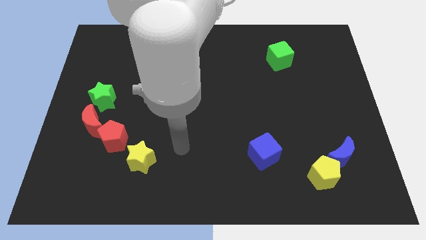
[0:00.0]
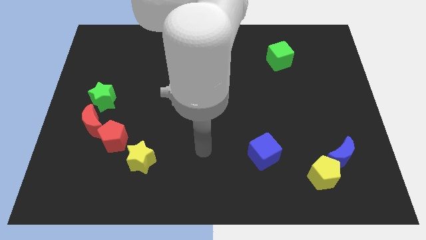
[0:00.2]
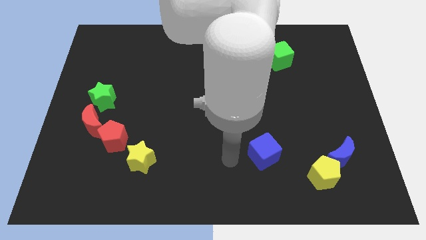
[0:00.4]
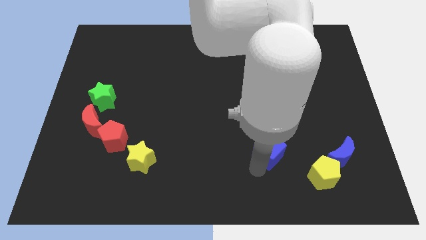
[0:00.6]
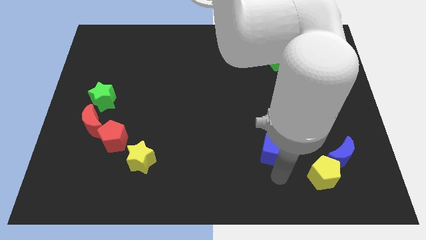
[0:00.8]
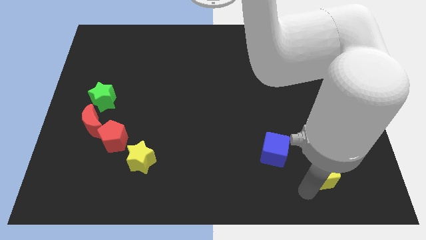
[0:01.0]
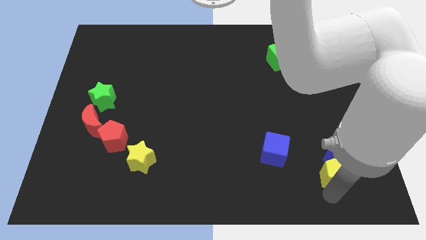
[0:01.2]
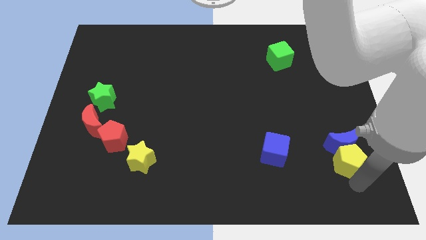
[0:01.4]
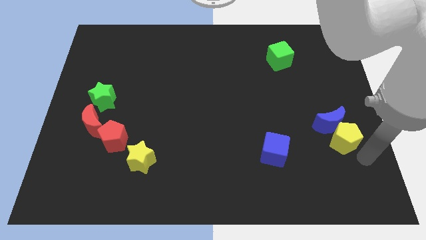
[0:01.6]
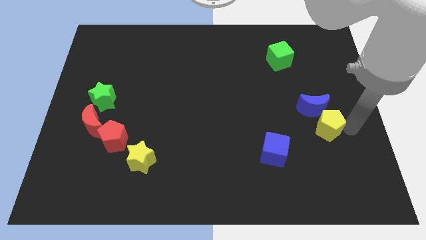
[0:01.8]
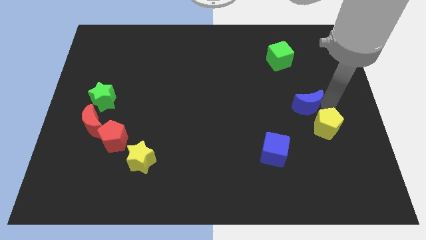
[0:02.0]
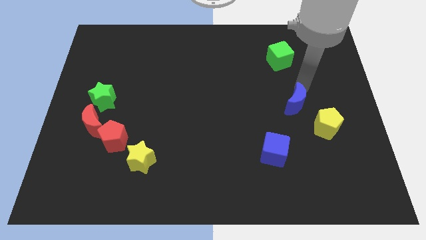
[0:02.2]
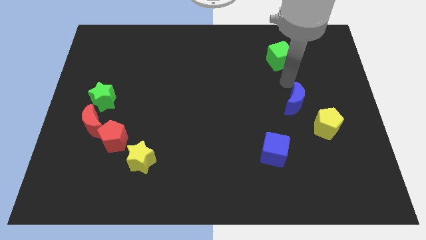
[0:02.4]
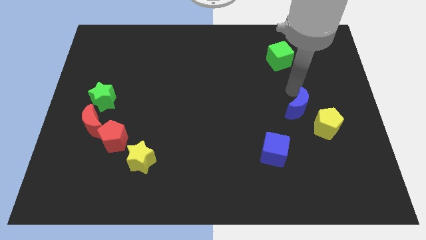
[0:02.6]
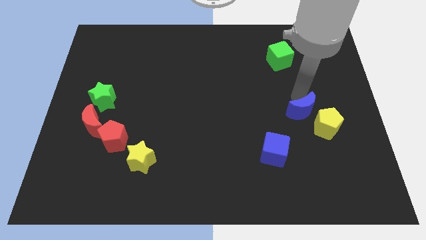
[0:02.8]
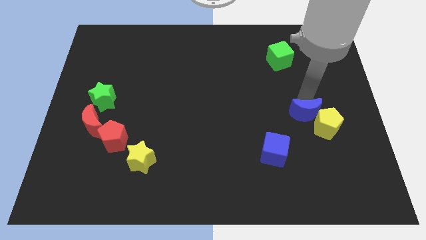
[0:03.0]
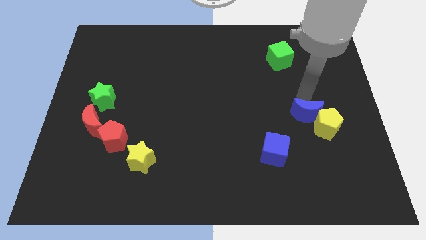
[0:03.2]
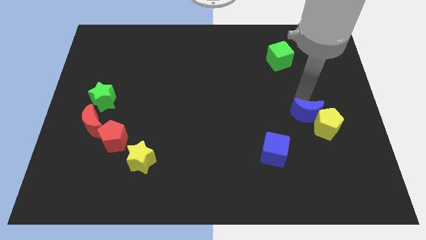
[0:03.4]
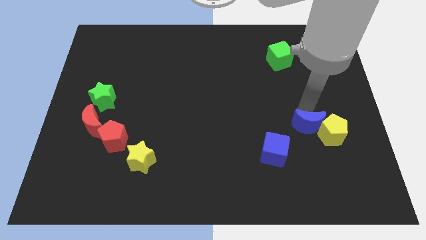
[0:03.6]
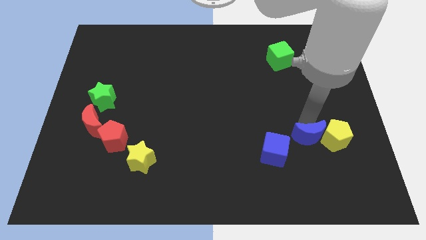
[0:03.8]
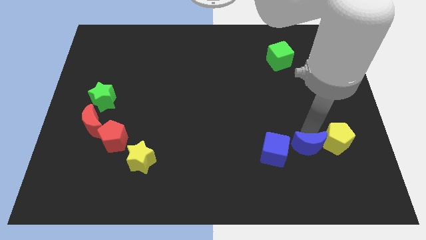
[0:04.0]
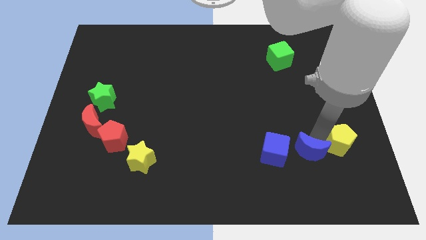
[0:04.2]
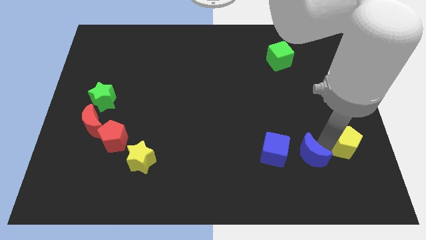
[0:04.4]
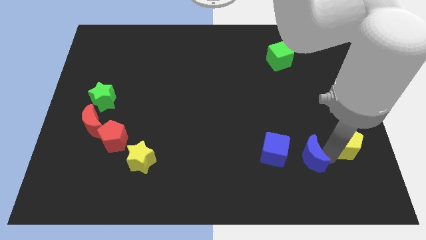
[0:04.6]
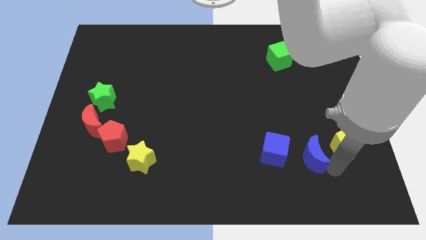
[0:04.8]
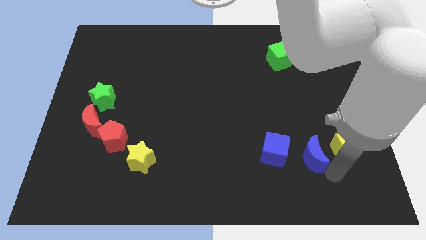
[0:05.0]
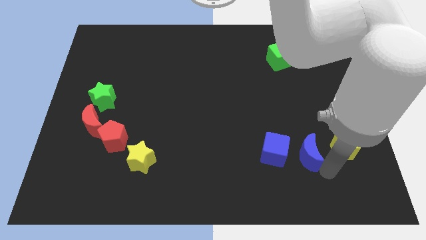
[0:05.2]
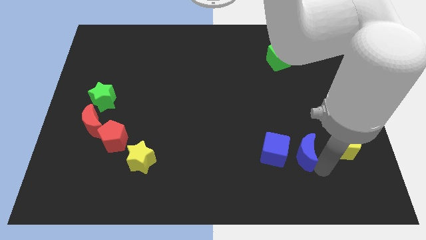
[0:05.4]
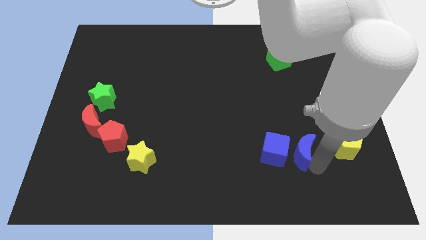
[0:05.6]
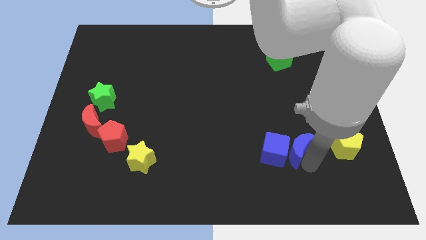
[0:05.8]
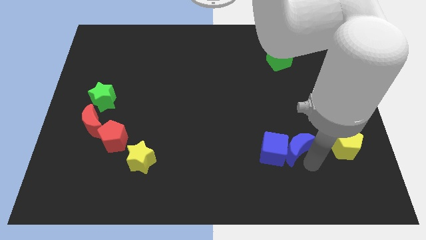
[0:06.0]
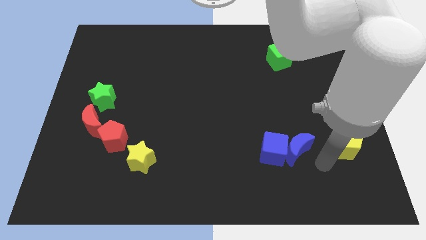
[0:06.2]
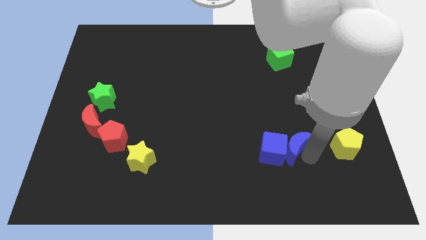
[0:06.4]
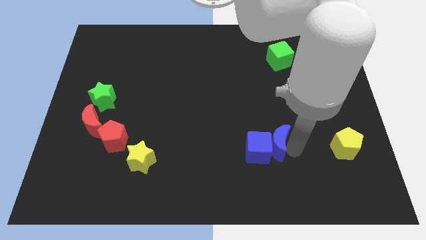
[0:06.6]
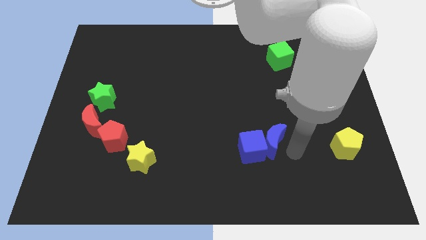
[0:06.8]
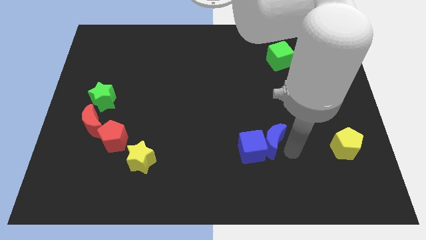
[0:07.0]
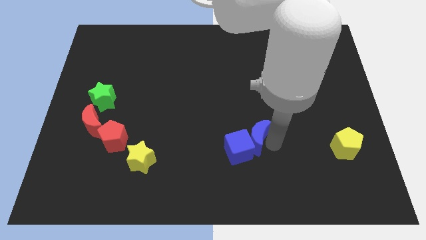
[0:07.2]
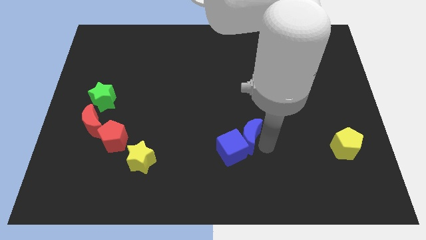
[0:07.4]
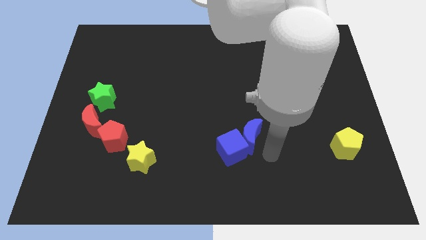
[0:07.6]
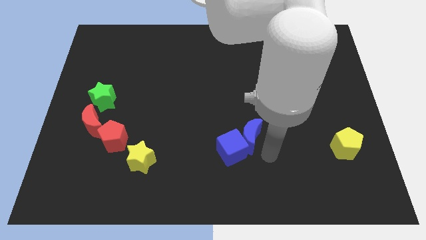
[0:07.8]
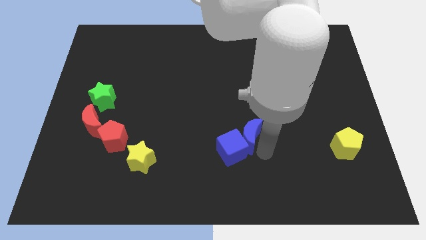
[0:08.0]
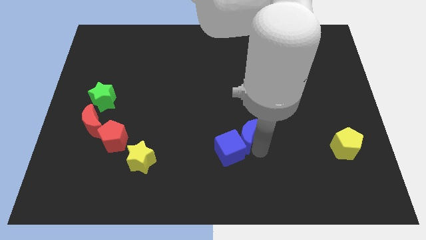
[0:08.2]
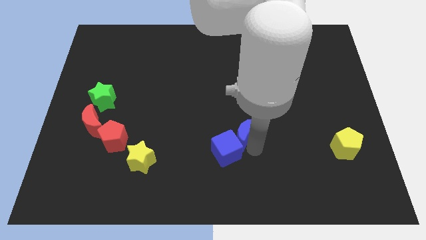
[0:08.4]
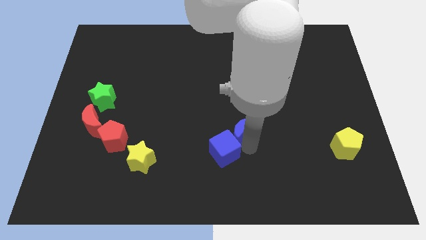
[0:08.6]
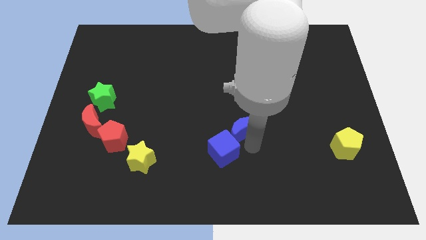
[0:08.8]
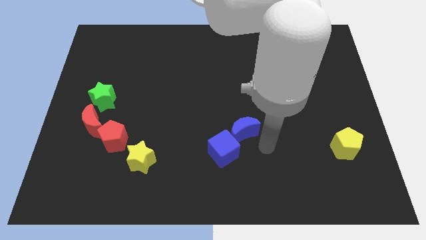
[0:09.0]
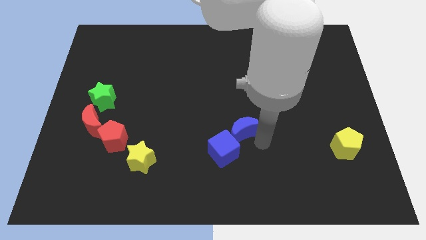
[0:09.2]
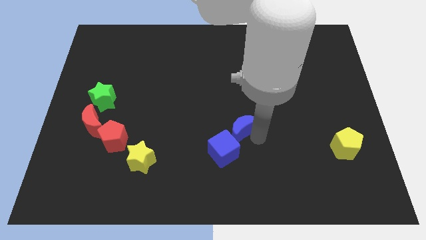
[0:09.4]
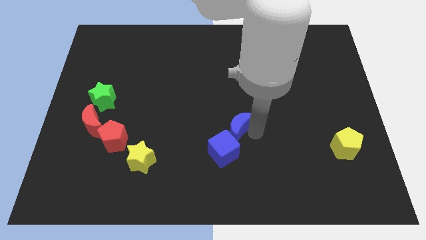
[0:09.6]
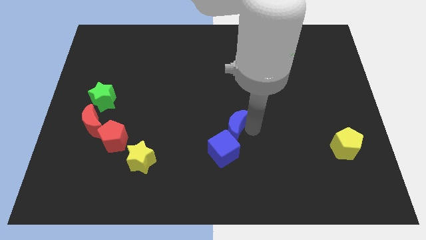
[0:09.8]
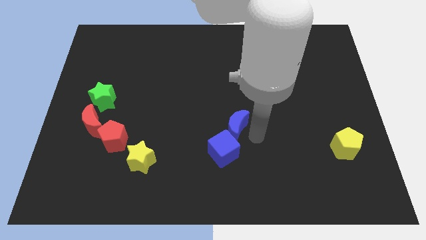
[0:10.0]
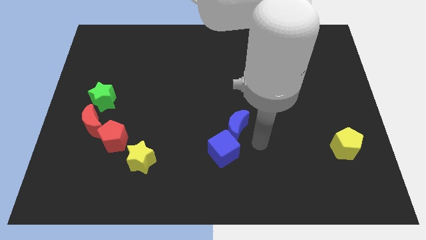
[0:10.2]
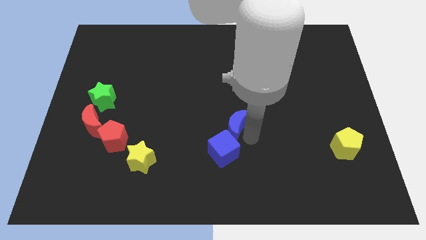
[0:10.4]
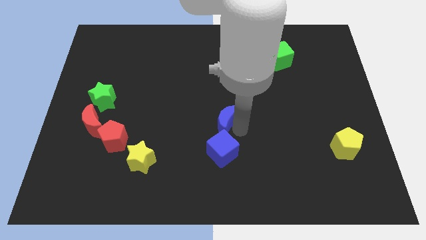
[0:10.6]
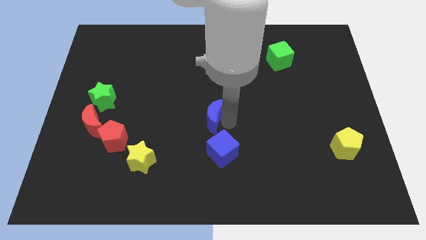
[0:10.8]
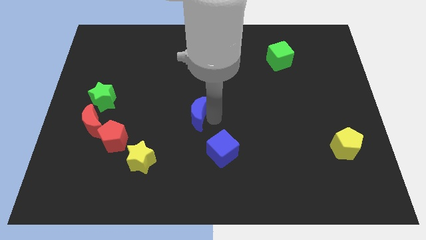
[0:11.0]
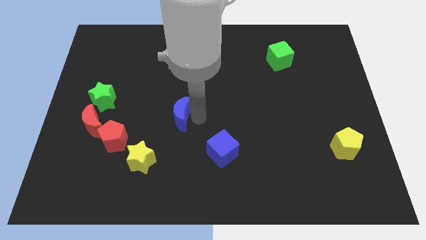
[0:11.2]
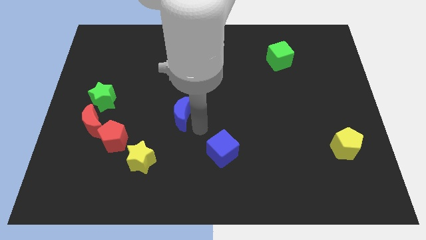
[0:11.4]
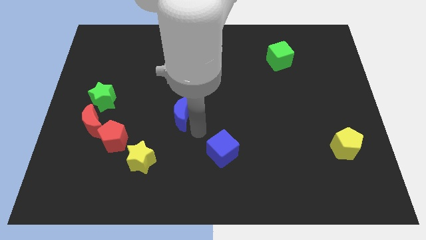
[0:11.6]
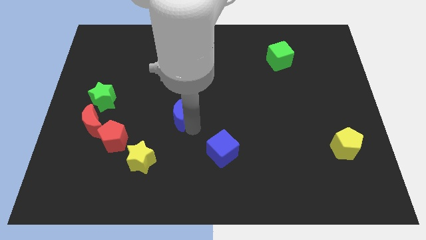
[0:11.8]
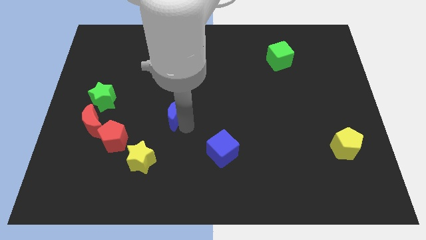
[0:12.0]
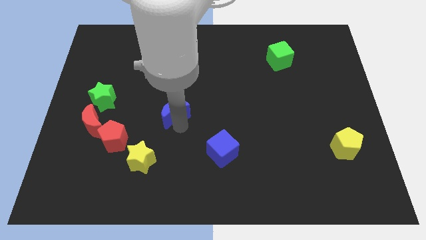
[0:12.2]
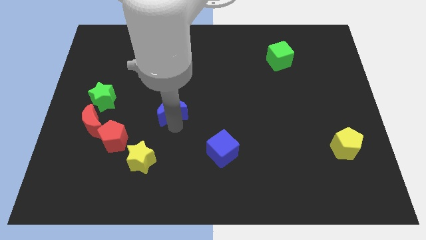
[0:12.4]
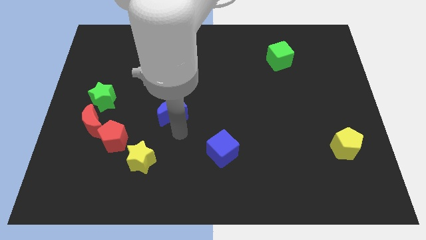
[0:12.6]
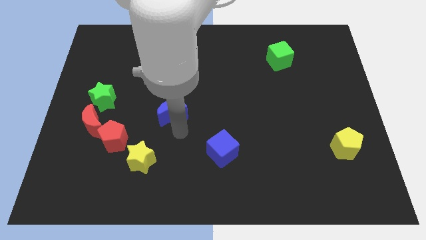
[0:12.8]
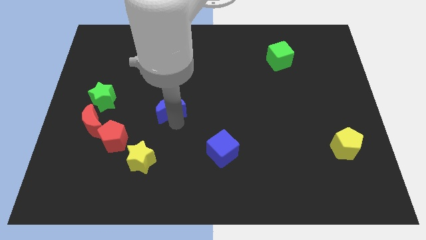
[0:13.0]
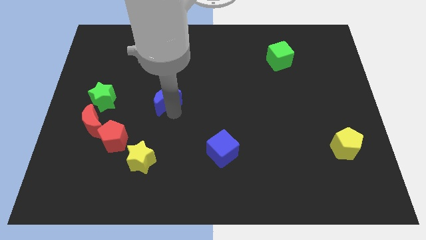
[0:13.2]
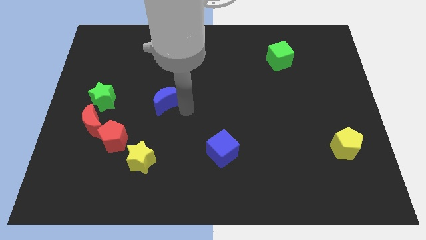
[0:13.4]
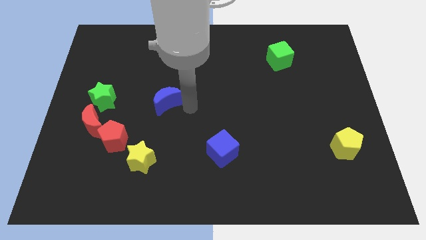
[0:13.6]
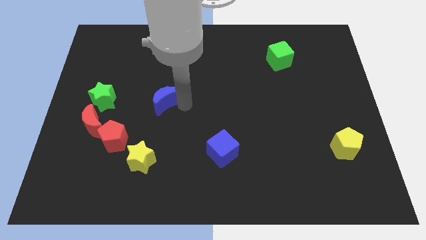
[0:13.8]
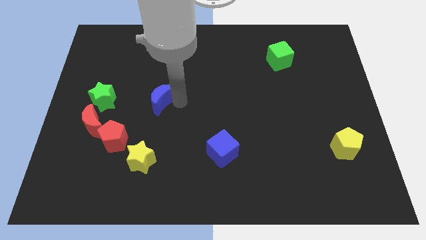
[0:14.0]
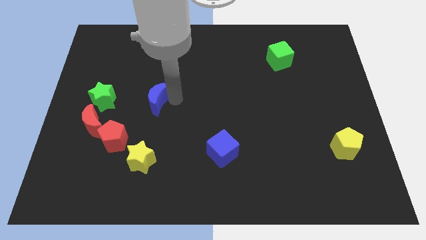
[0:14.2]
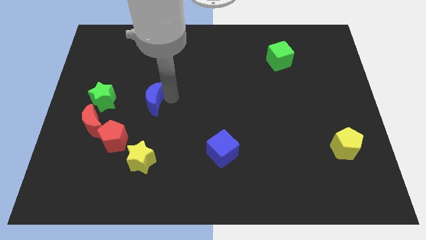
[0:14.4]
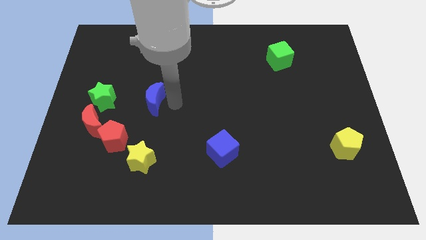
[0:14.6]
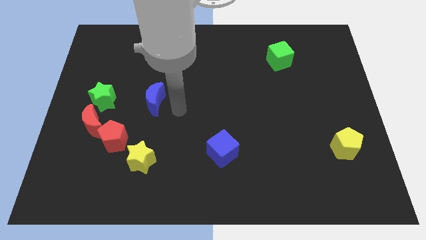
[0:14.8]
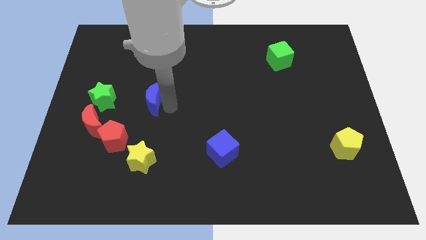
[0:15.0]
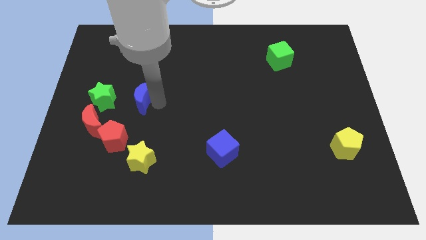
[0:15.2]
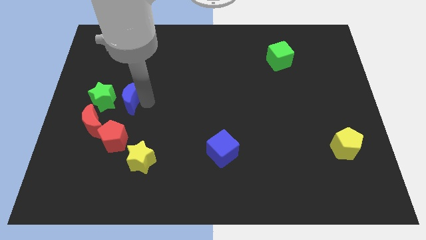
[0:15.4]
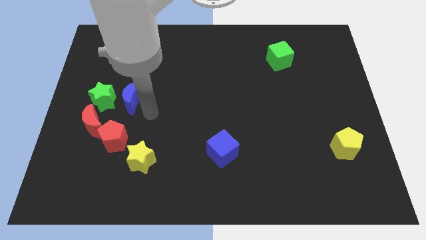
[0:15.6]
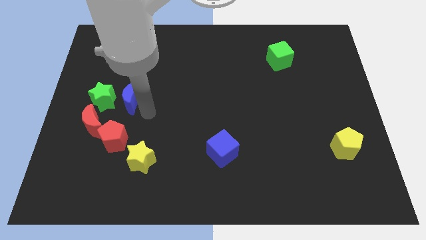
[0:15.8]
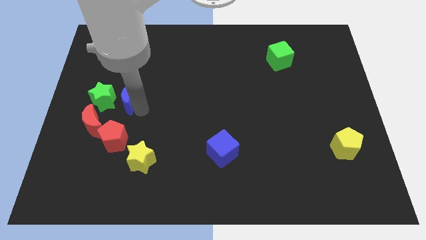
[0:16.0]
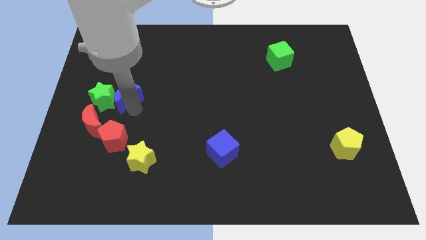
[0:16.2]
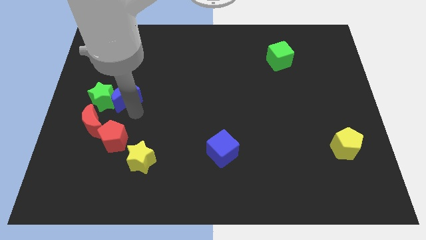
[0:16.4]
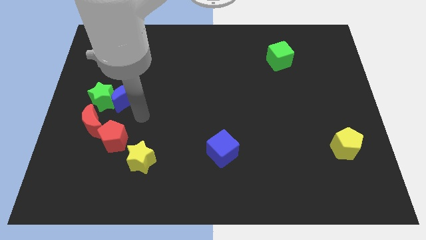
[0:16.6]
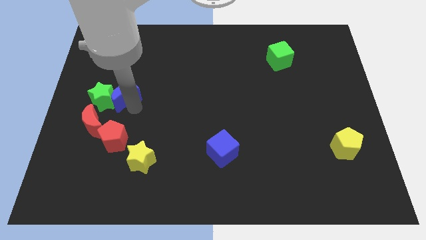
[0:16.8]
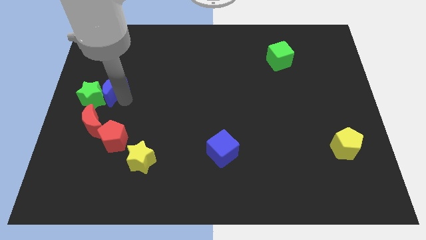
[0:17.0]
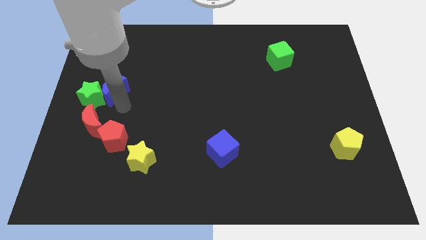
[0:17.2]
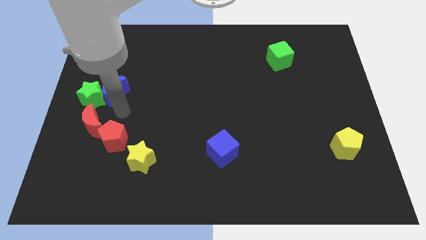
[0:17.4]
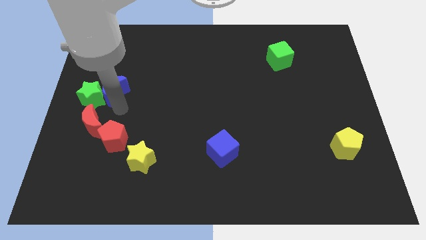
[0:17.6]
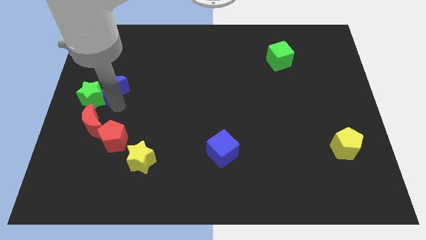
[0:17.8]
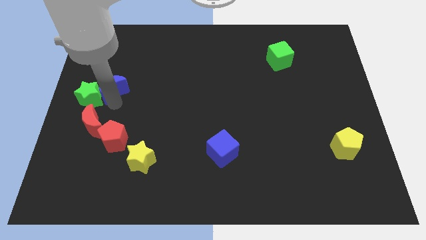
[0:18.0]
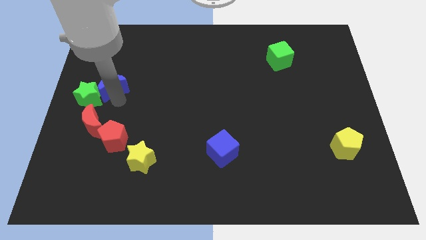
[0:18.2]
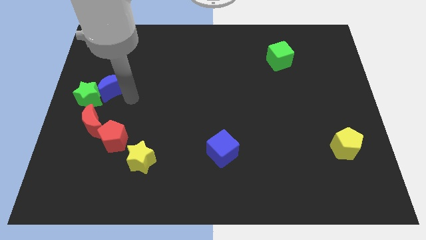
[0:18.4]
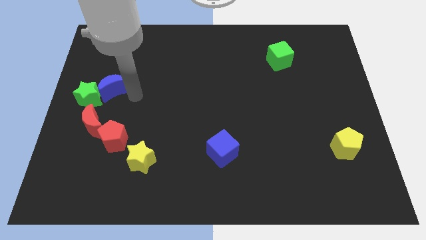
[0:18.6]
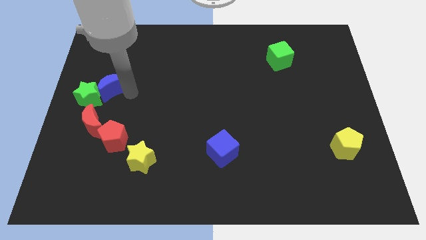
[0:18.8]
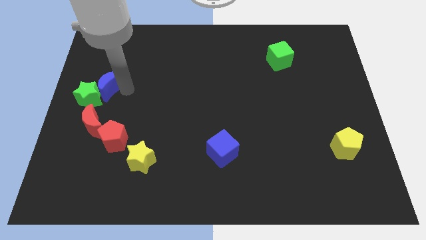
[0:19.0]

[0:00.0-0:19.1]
move the blue moon to the center left
